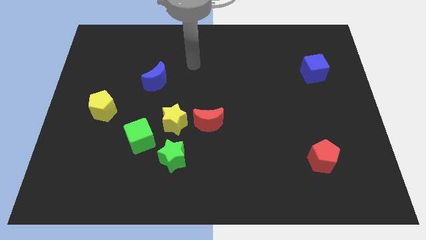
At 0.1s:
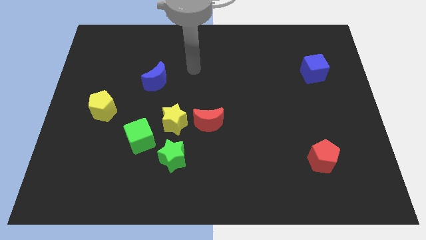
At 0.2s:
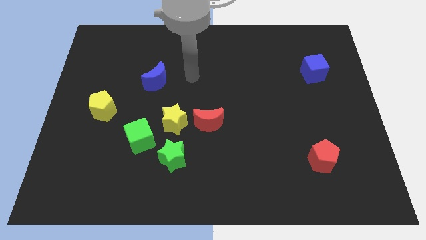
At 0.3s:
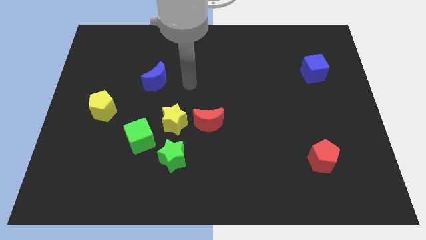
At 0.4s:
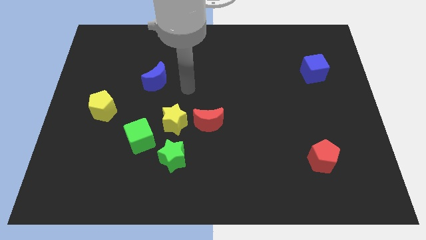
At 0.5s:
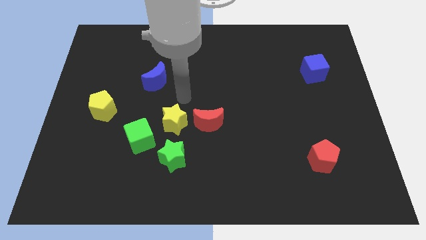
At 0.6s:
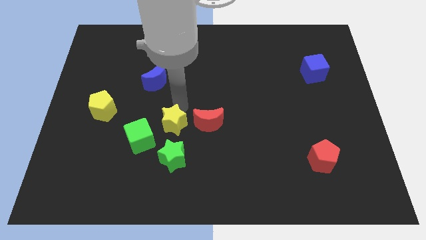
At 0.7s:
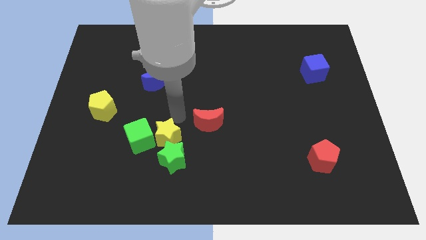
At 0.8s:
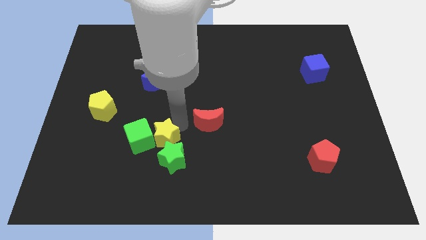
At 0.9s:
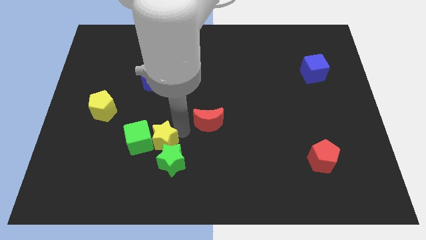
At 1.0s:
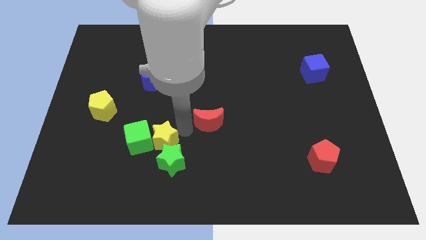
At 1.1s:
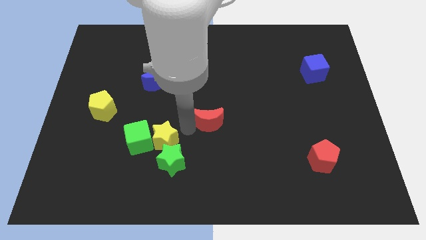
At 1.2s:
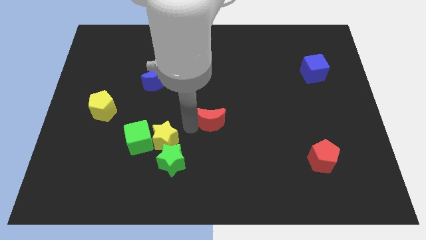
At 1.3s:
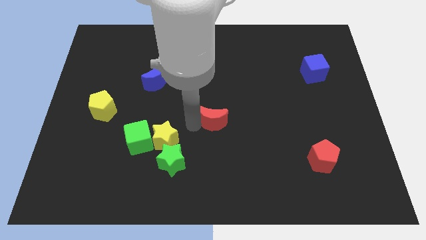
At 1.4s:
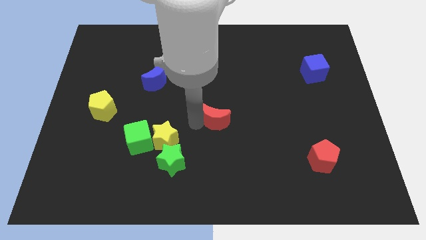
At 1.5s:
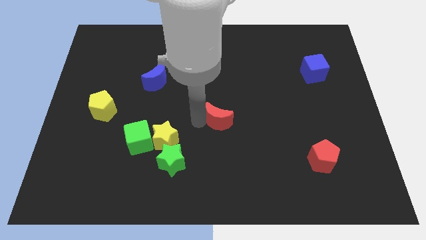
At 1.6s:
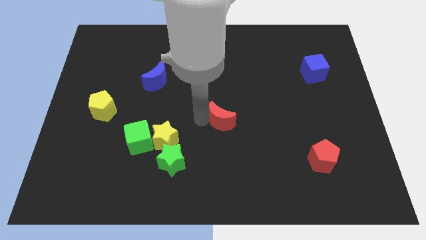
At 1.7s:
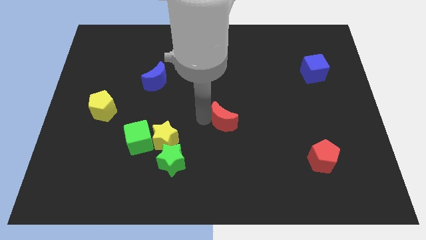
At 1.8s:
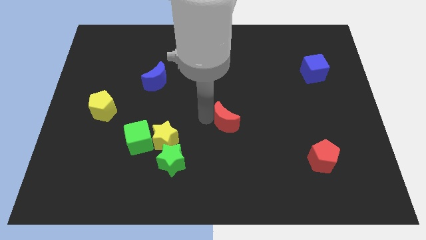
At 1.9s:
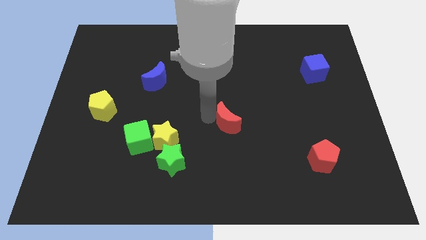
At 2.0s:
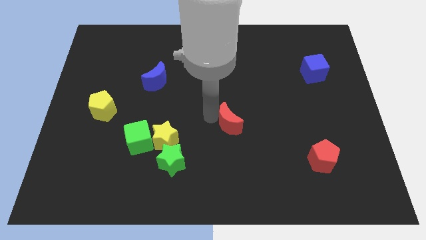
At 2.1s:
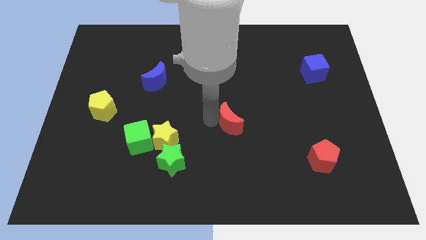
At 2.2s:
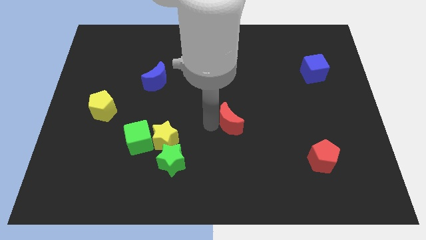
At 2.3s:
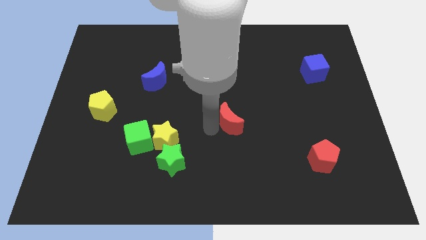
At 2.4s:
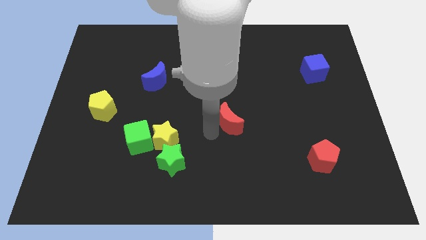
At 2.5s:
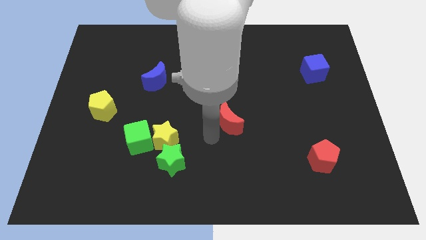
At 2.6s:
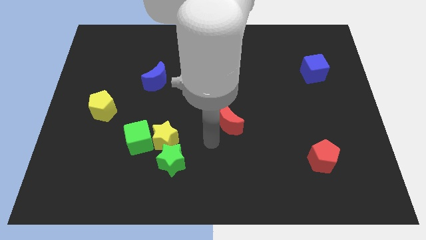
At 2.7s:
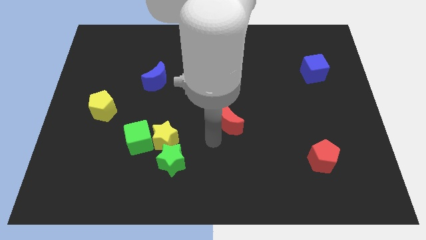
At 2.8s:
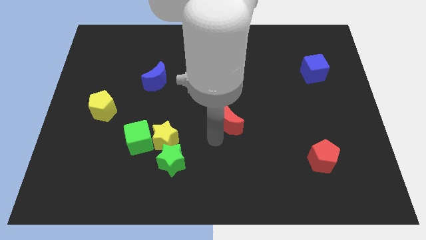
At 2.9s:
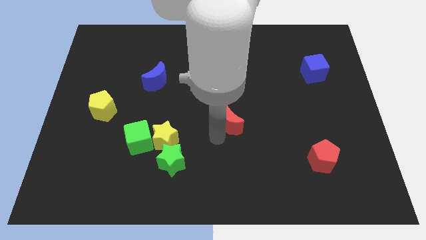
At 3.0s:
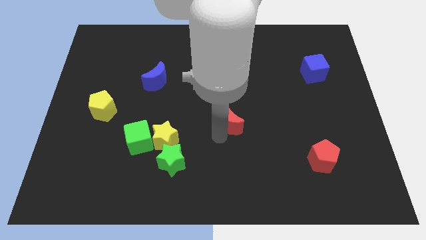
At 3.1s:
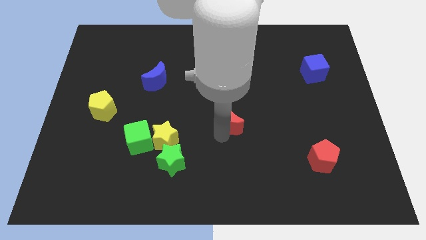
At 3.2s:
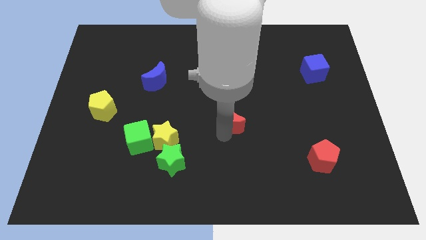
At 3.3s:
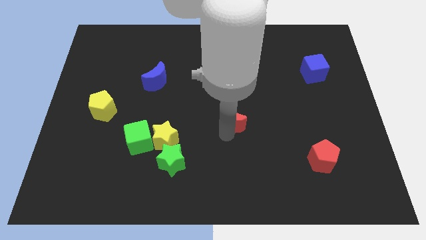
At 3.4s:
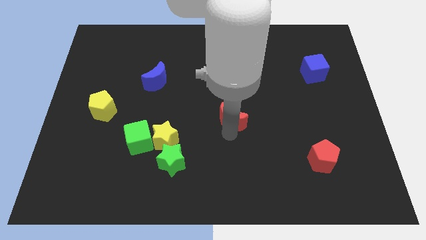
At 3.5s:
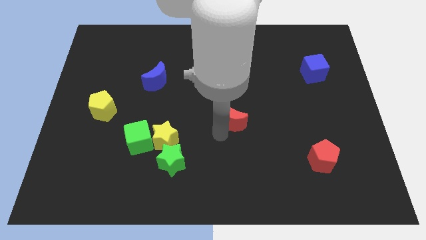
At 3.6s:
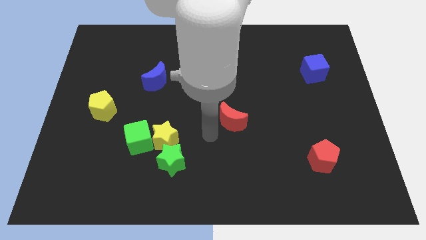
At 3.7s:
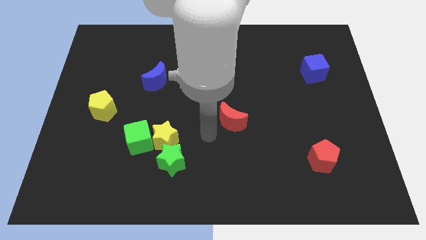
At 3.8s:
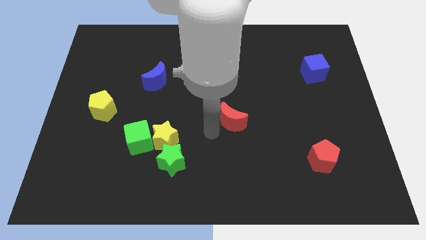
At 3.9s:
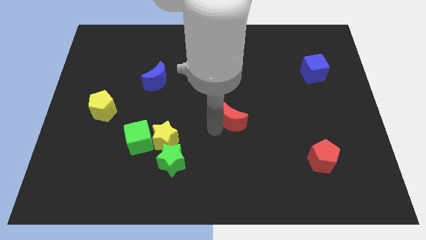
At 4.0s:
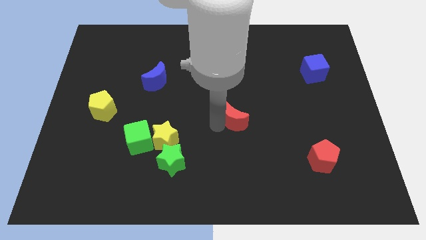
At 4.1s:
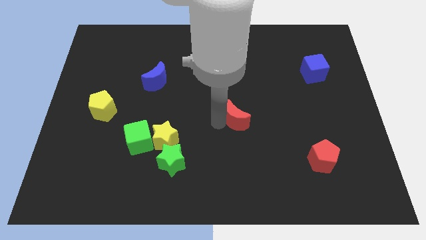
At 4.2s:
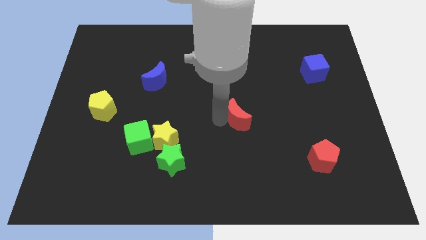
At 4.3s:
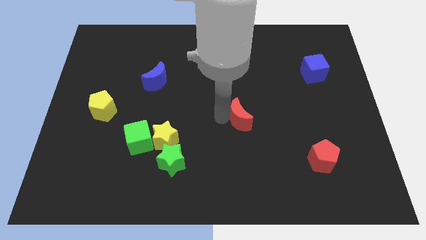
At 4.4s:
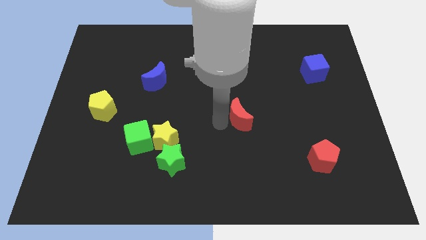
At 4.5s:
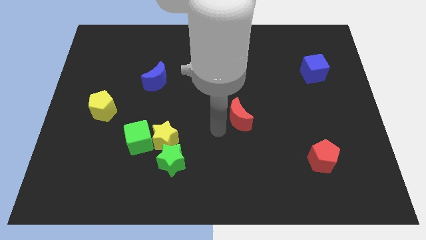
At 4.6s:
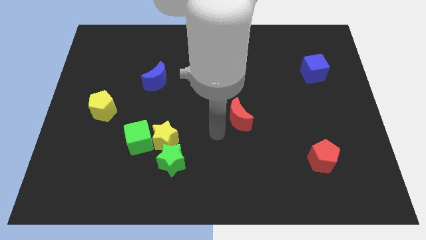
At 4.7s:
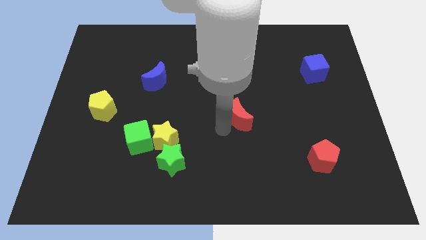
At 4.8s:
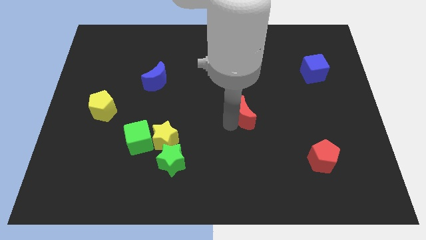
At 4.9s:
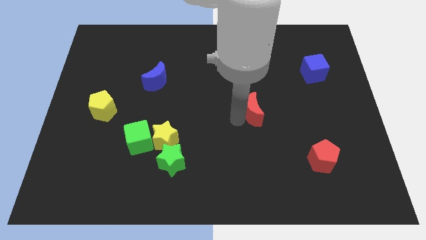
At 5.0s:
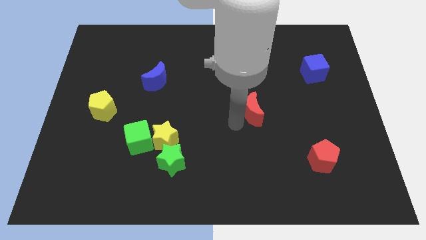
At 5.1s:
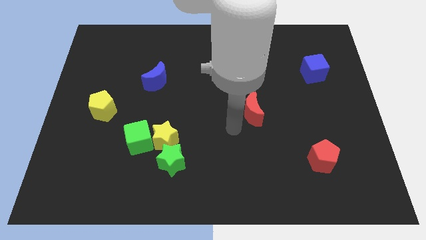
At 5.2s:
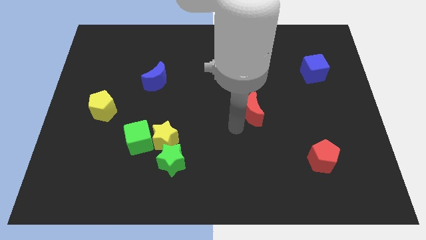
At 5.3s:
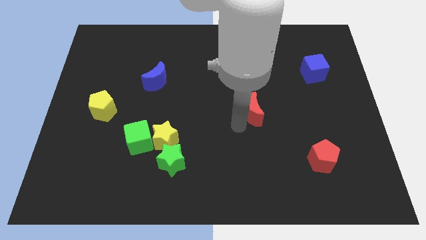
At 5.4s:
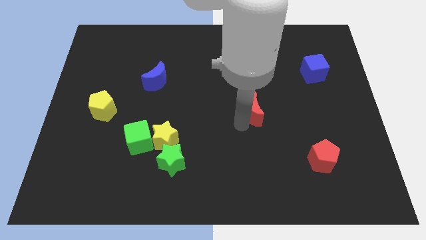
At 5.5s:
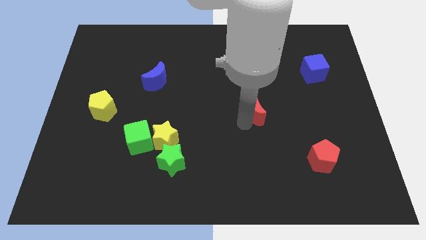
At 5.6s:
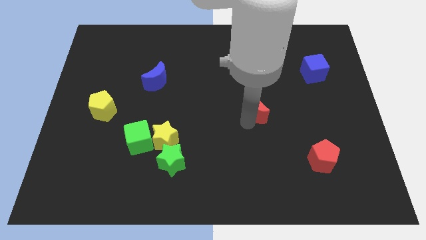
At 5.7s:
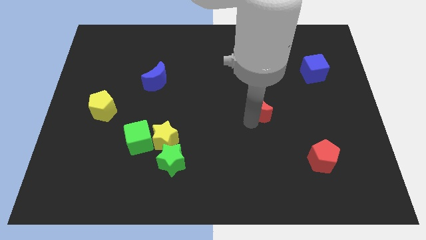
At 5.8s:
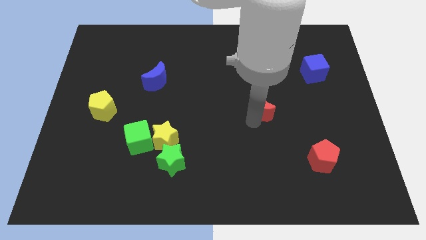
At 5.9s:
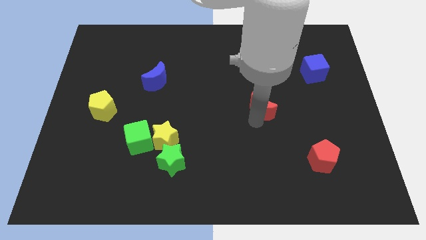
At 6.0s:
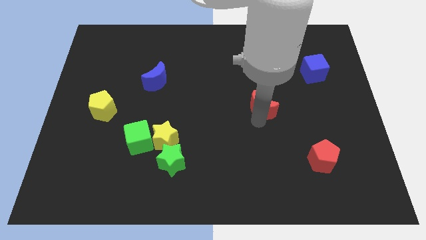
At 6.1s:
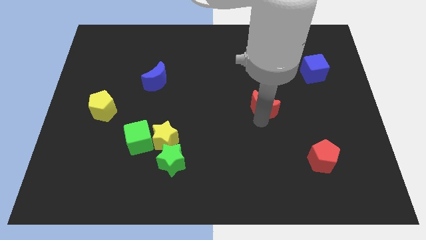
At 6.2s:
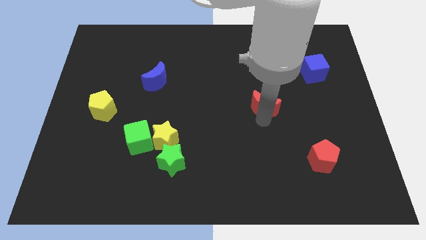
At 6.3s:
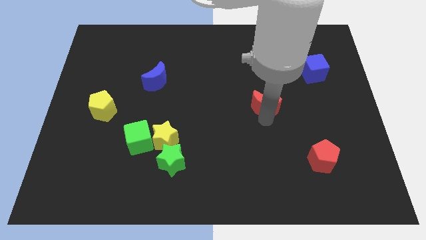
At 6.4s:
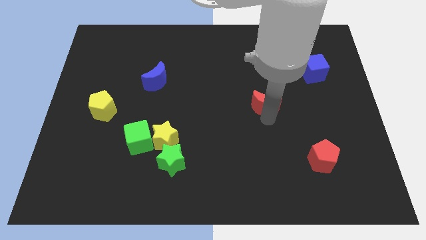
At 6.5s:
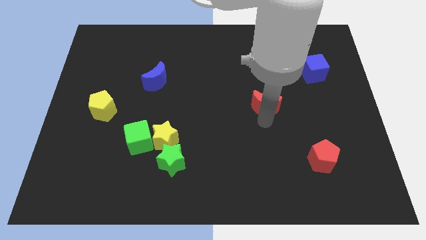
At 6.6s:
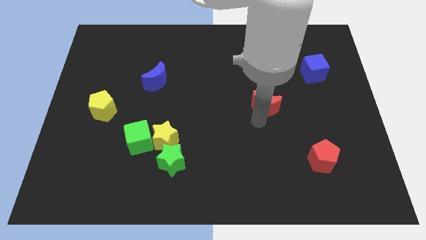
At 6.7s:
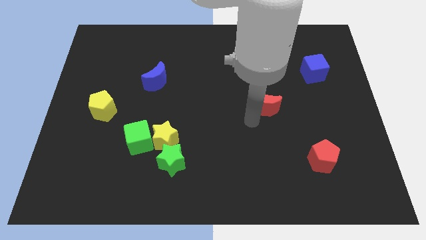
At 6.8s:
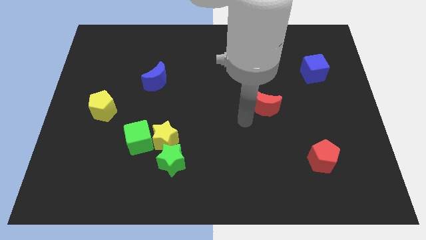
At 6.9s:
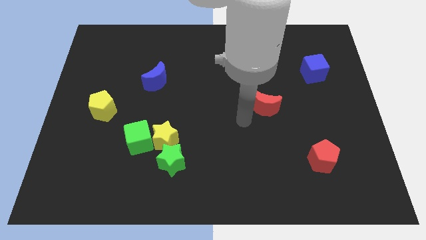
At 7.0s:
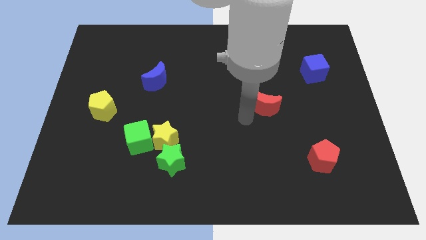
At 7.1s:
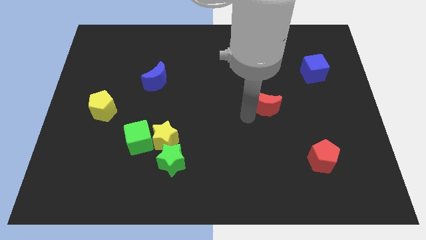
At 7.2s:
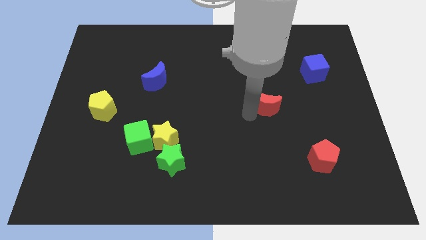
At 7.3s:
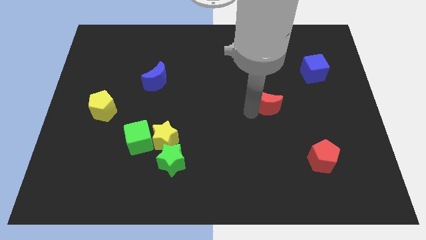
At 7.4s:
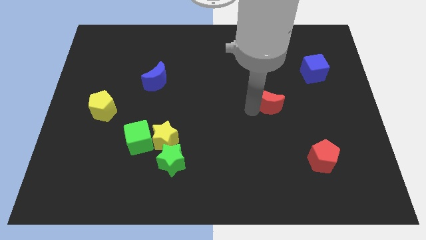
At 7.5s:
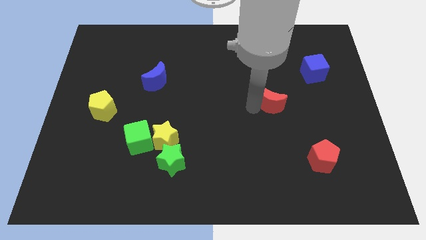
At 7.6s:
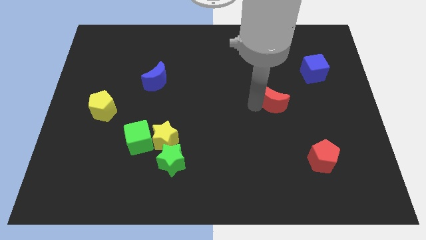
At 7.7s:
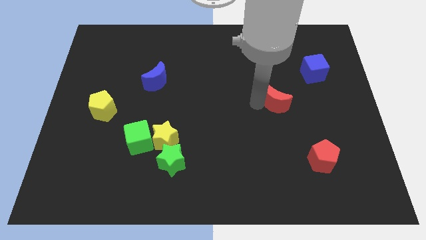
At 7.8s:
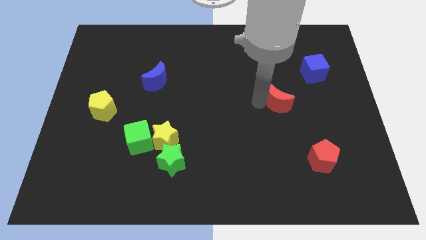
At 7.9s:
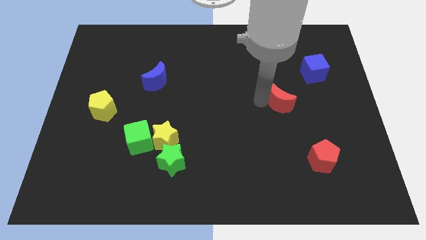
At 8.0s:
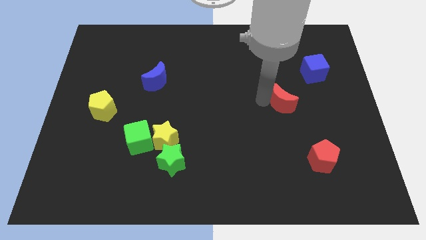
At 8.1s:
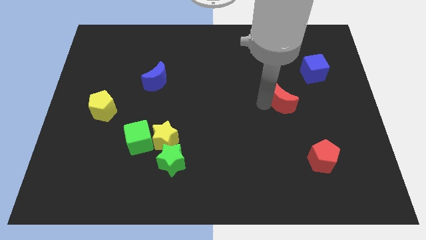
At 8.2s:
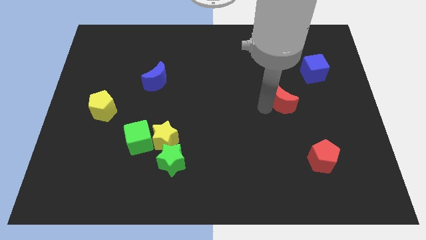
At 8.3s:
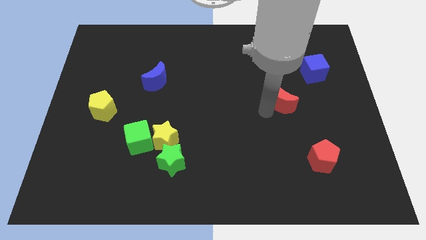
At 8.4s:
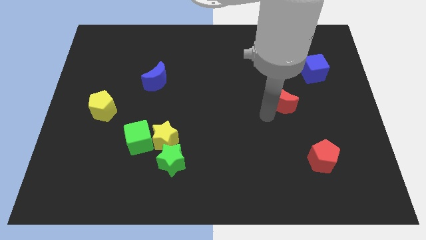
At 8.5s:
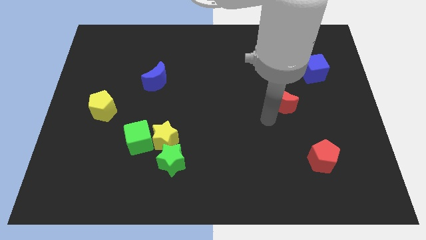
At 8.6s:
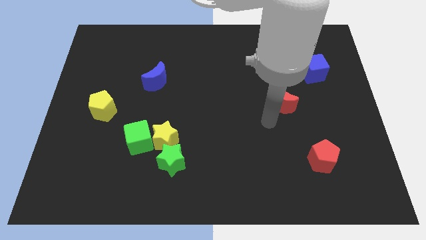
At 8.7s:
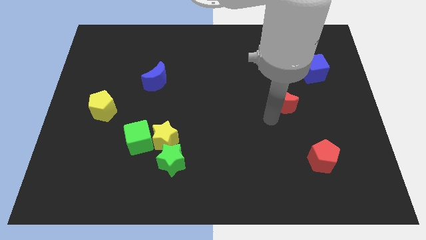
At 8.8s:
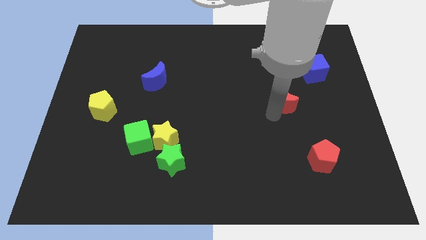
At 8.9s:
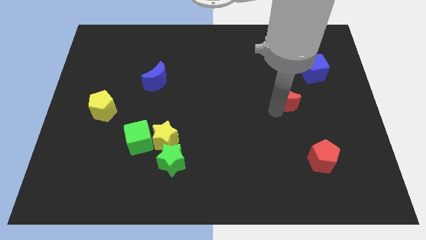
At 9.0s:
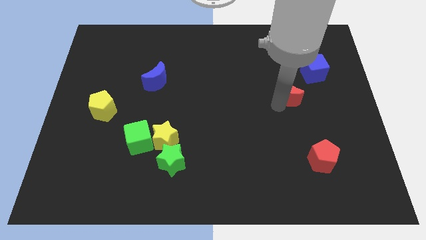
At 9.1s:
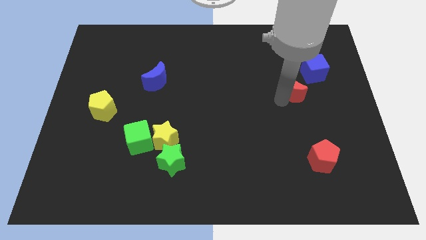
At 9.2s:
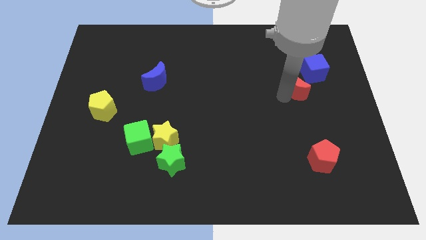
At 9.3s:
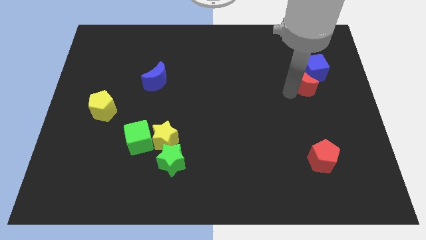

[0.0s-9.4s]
push the red moon next to the blue cube
